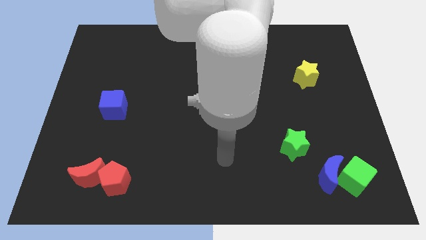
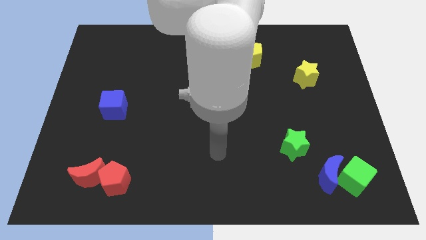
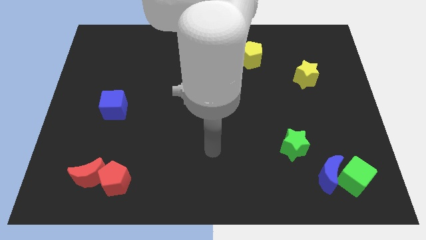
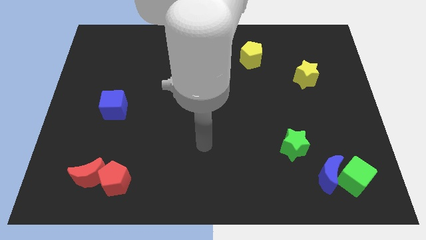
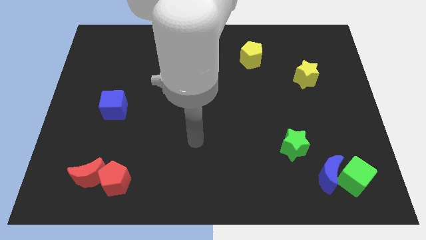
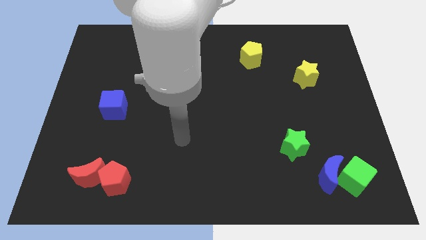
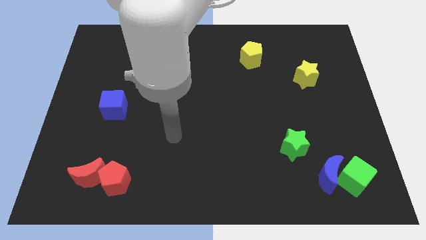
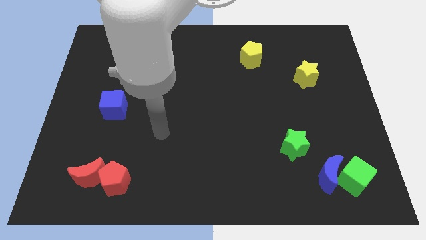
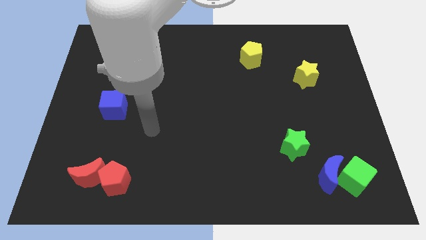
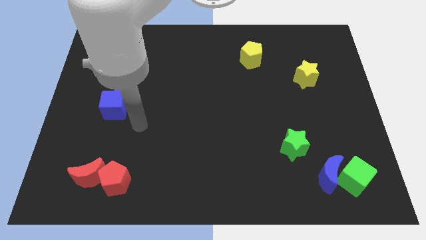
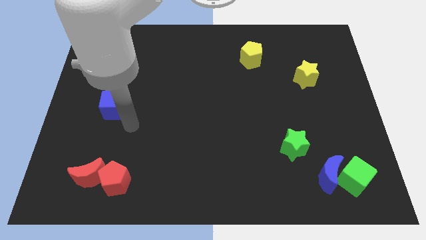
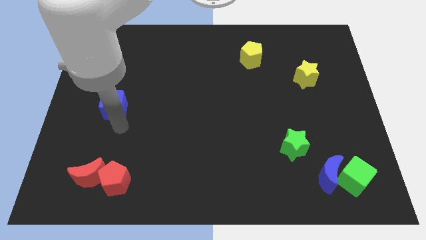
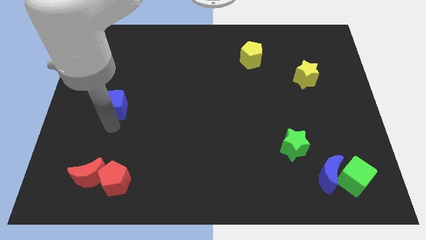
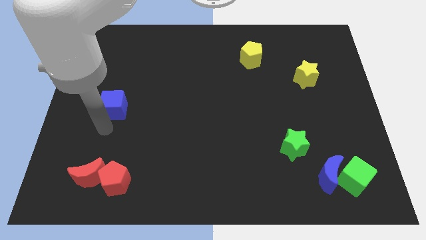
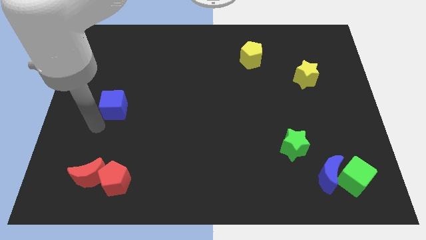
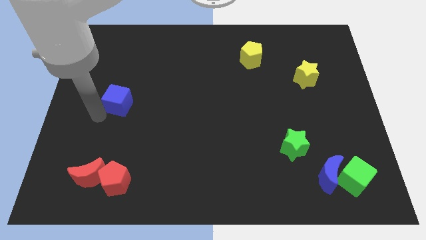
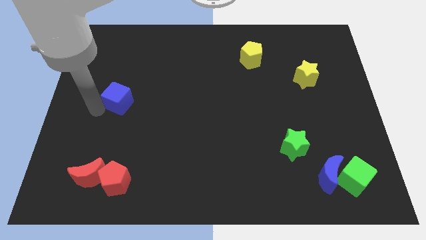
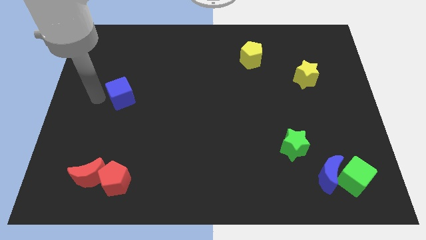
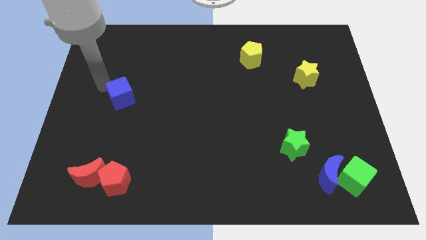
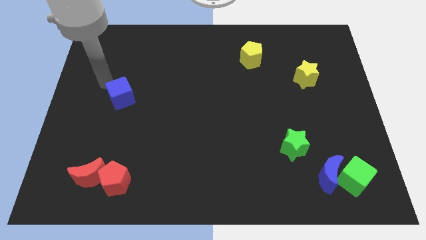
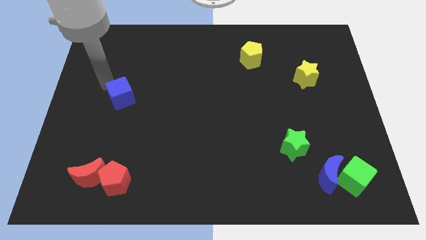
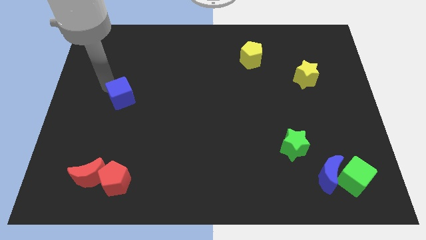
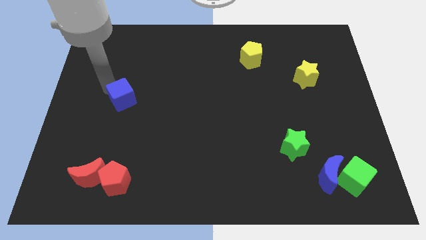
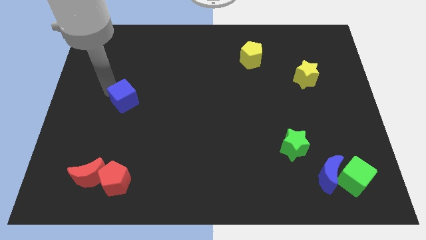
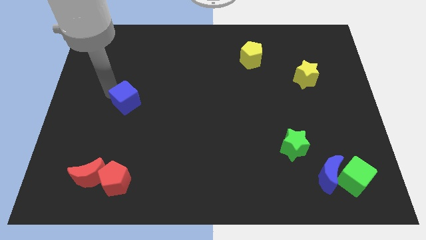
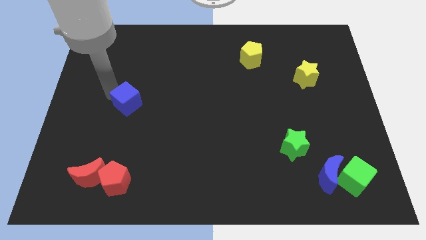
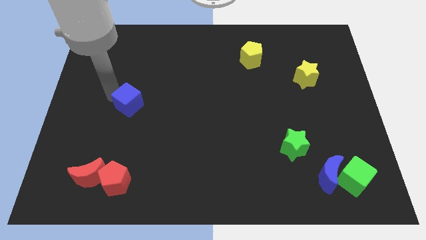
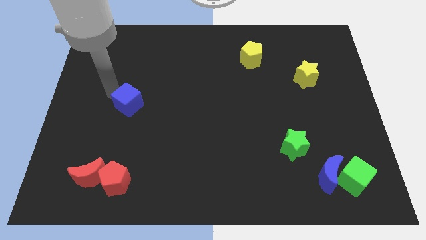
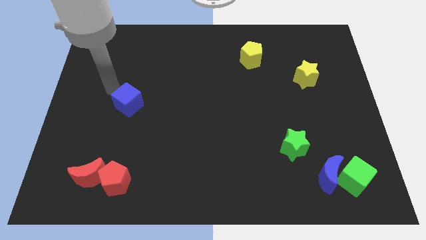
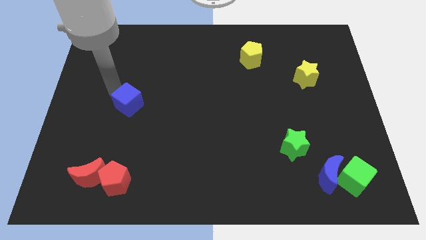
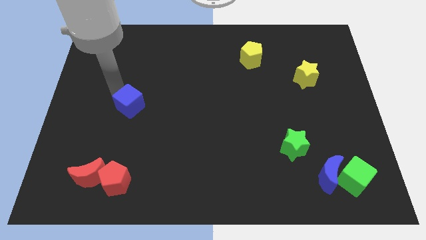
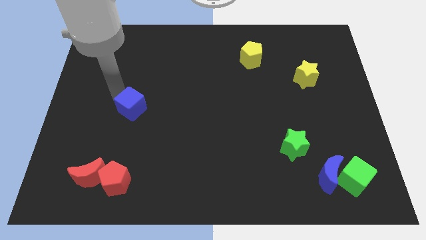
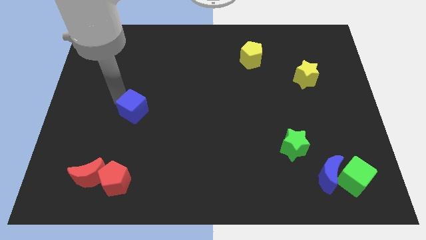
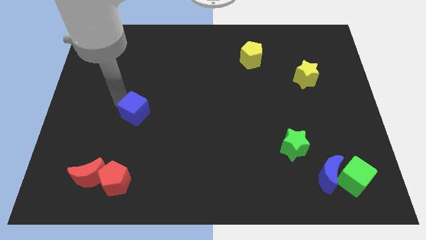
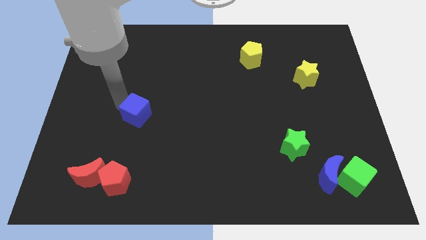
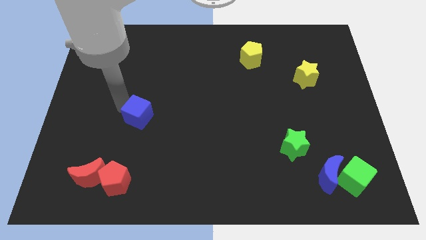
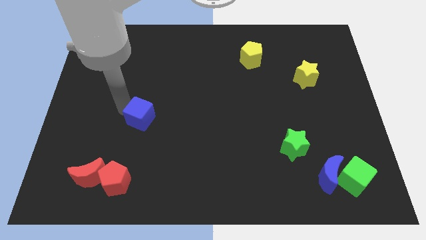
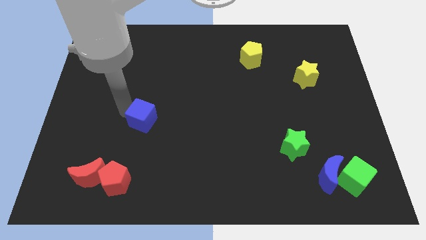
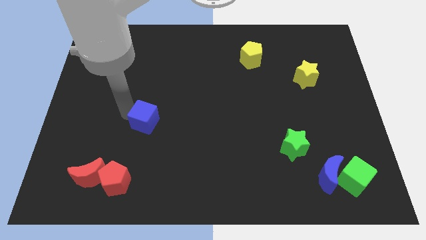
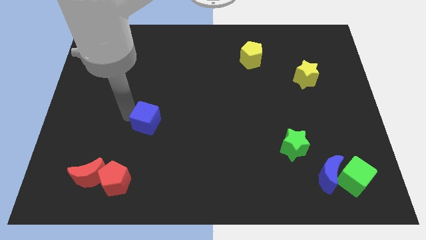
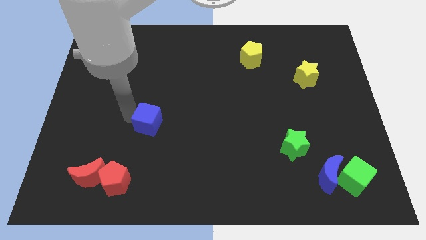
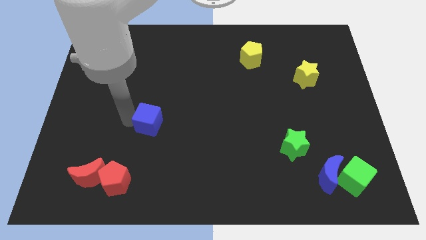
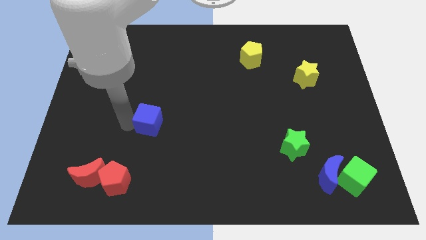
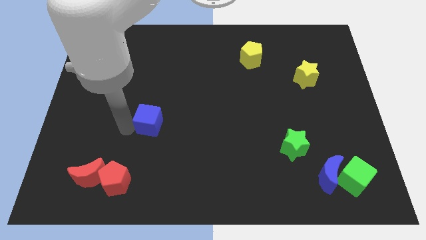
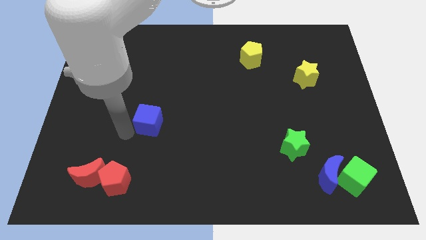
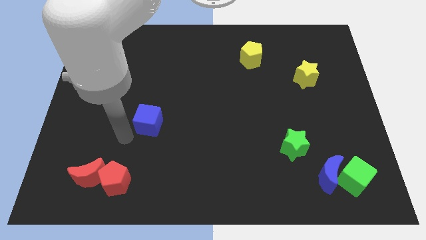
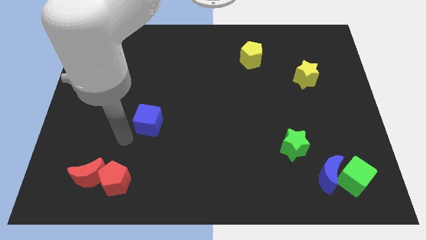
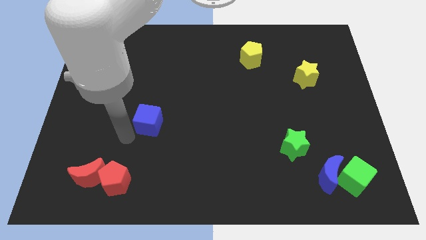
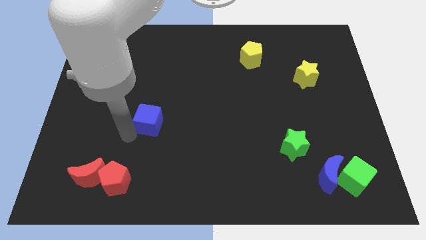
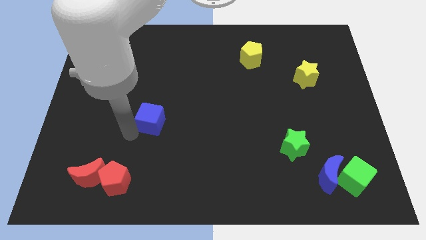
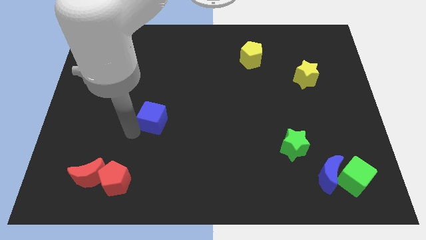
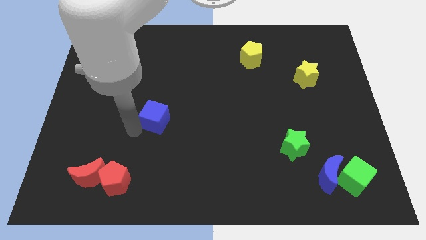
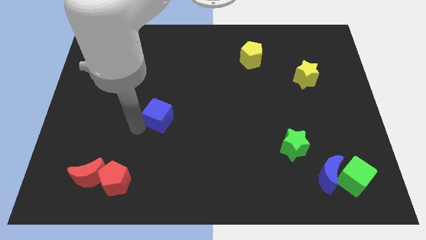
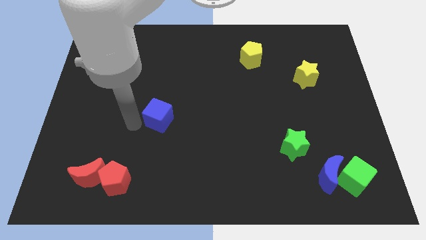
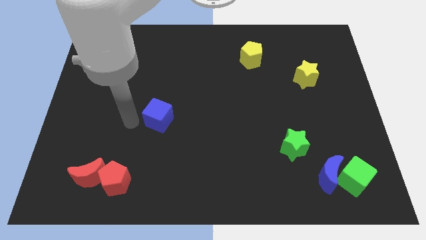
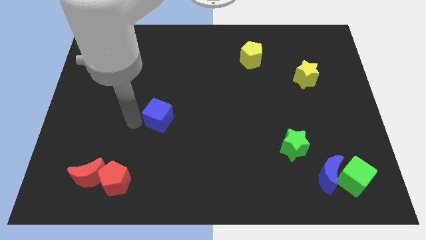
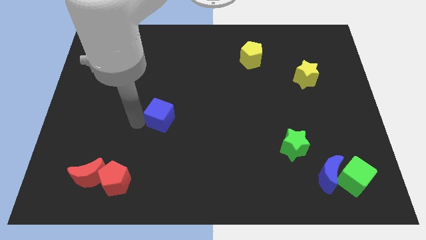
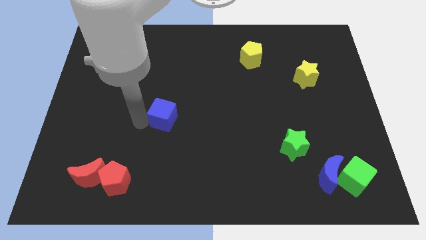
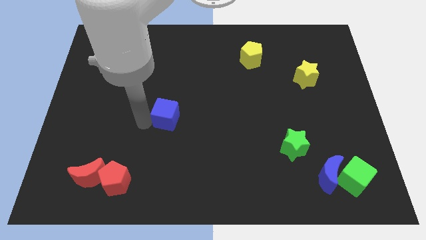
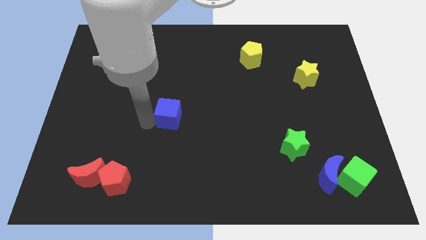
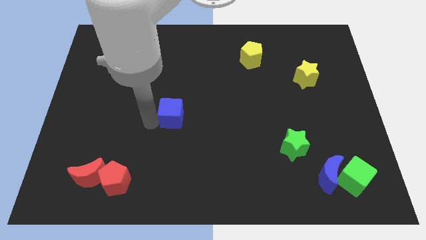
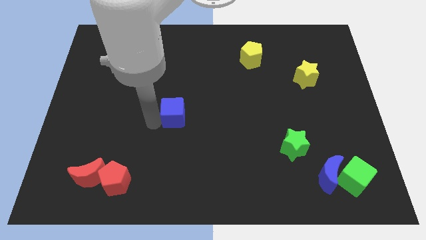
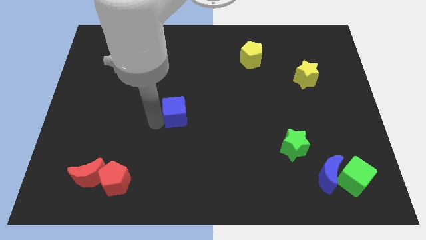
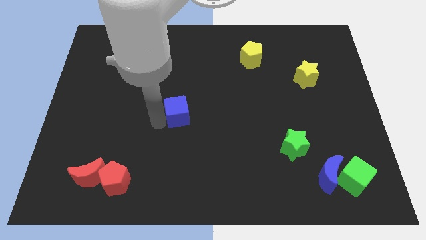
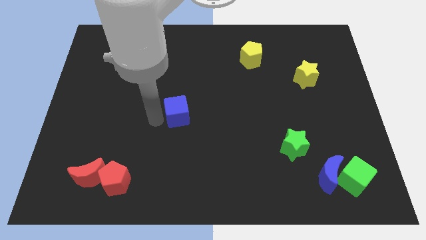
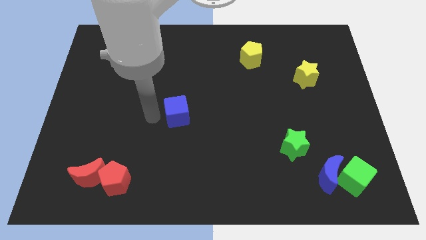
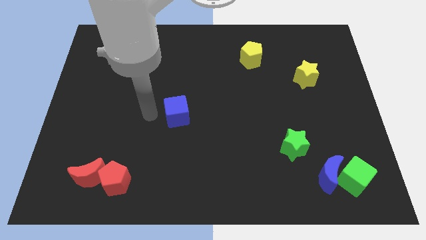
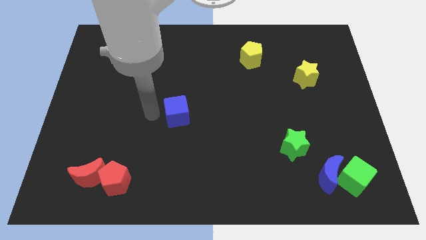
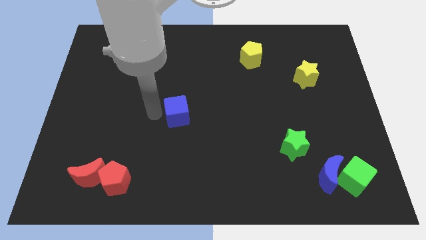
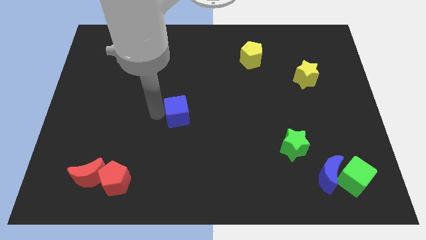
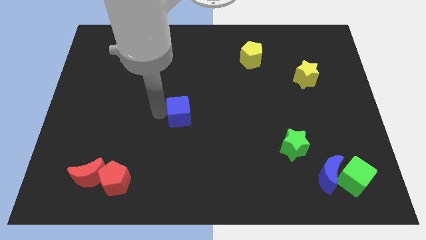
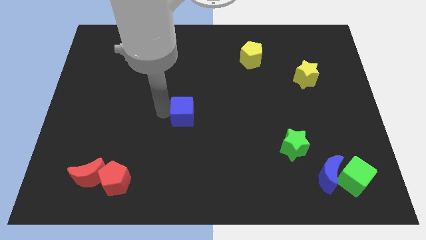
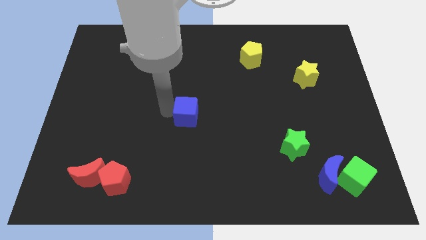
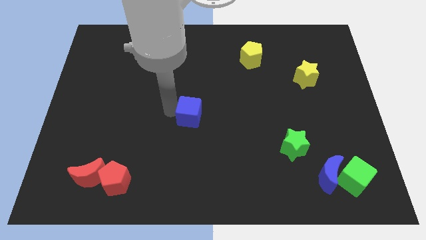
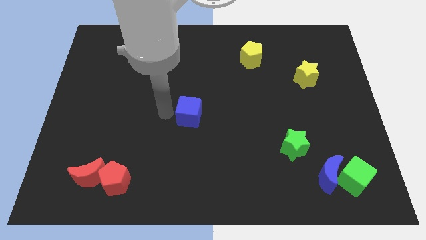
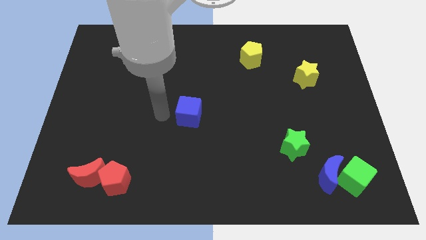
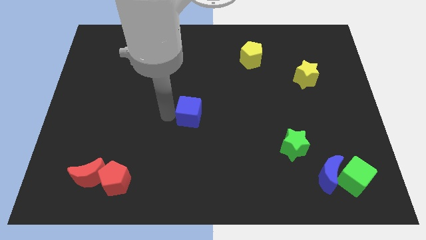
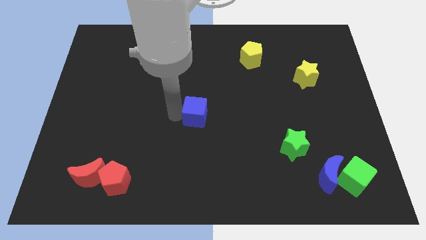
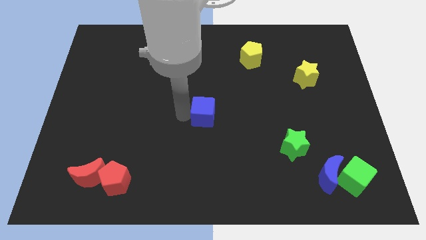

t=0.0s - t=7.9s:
push the blue cube to the right
